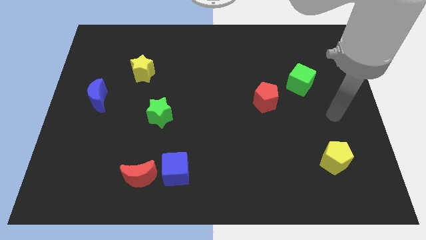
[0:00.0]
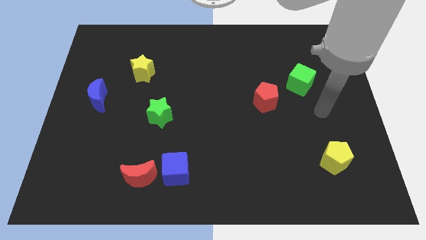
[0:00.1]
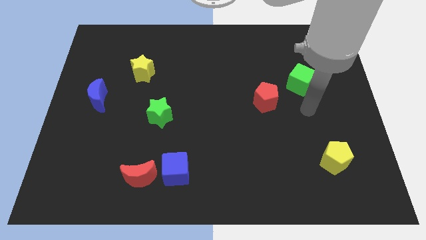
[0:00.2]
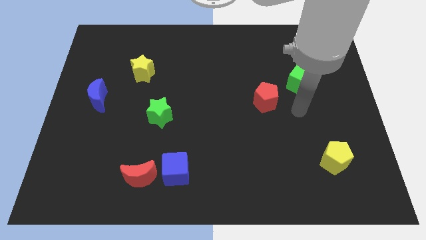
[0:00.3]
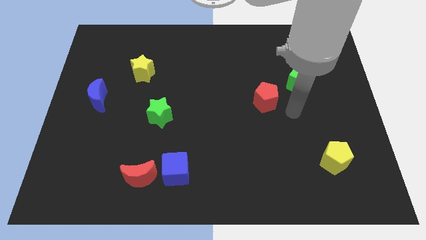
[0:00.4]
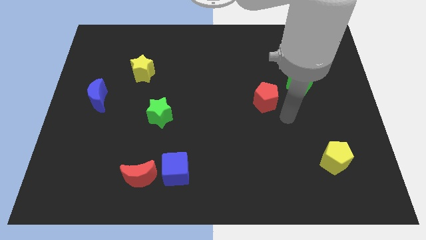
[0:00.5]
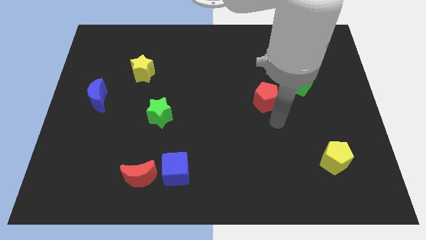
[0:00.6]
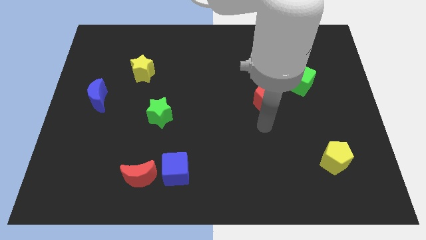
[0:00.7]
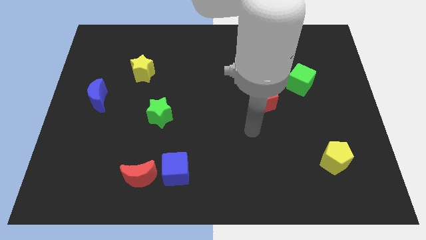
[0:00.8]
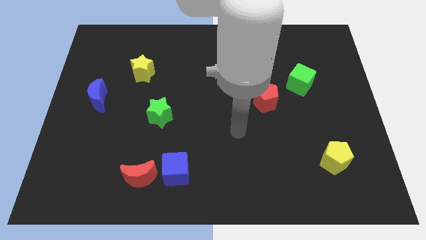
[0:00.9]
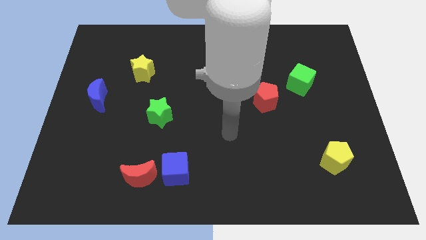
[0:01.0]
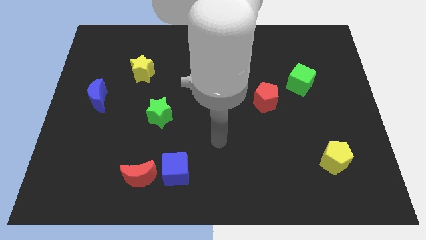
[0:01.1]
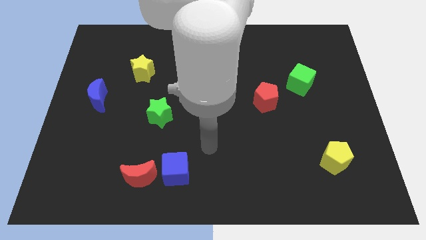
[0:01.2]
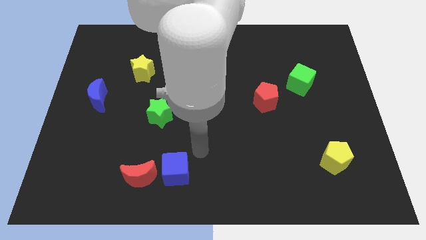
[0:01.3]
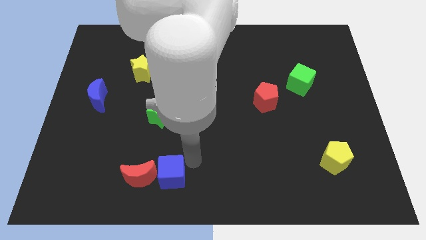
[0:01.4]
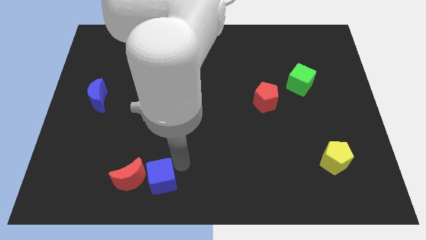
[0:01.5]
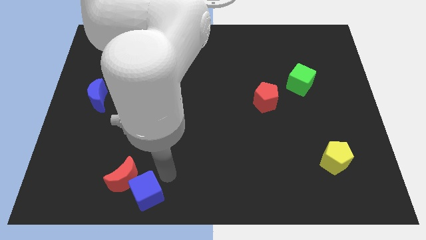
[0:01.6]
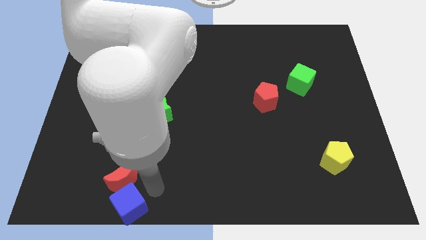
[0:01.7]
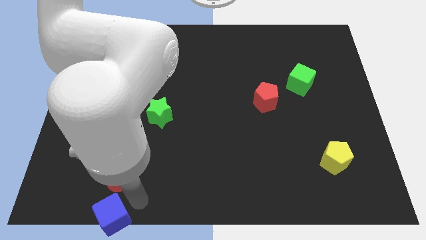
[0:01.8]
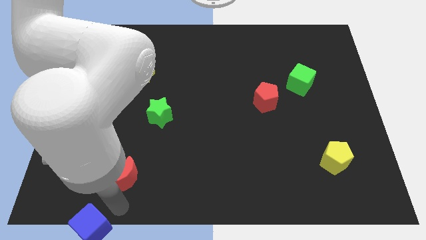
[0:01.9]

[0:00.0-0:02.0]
separate the red moon from the blue cube

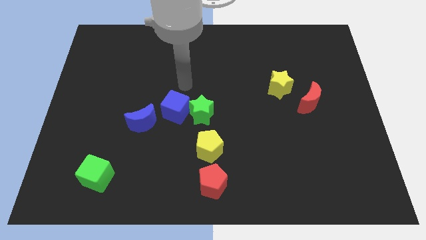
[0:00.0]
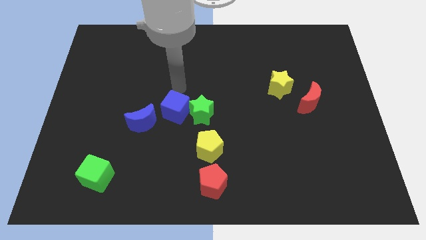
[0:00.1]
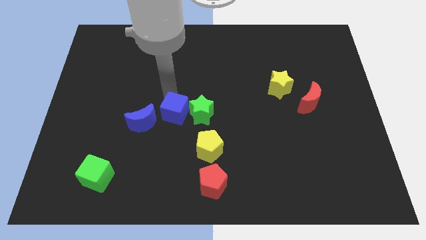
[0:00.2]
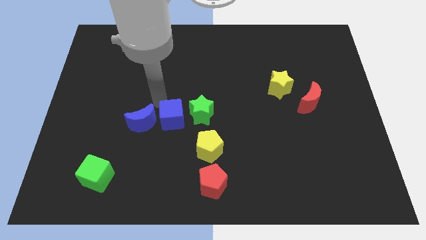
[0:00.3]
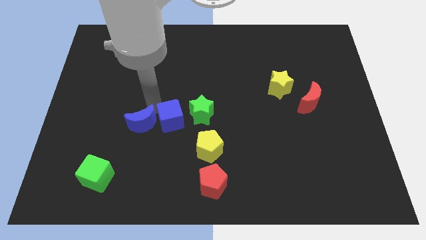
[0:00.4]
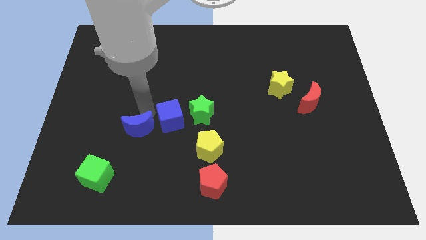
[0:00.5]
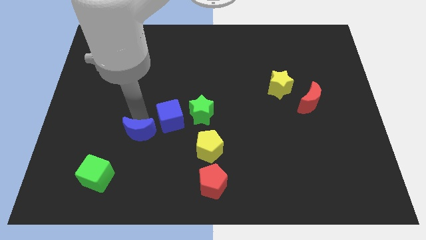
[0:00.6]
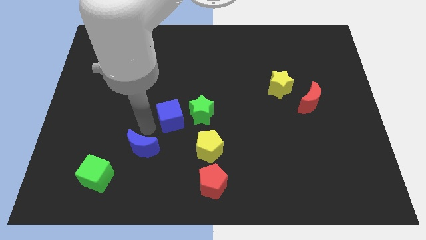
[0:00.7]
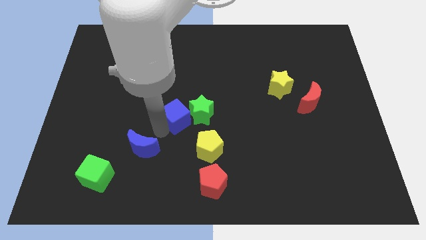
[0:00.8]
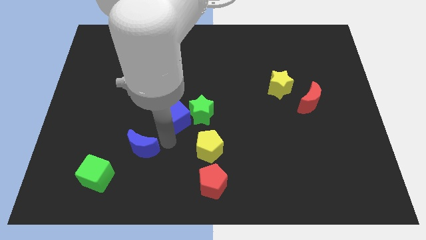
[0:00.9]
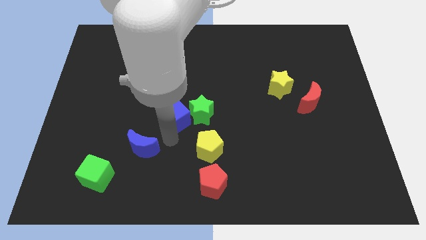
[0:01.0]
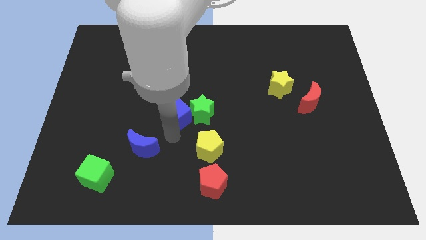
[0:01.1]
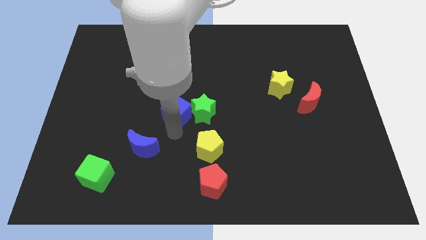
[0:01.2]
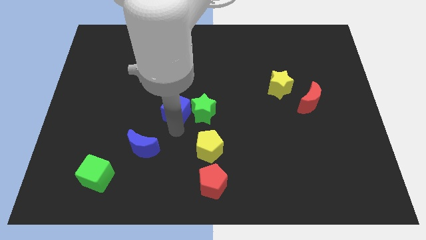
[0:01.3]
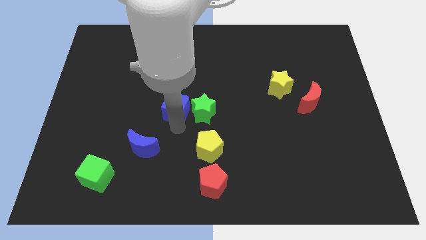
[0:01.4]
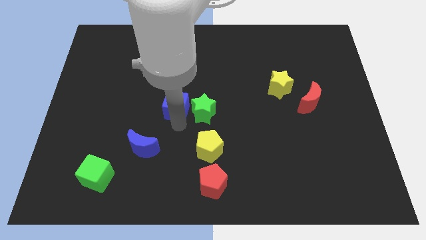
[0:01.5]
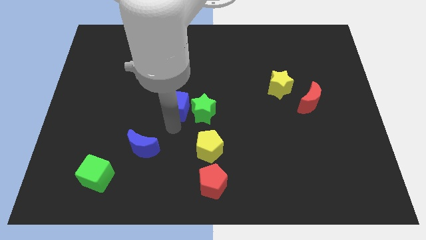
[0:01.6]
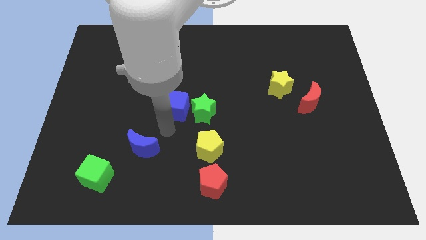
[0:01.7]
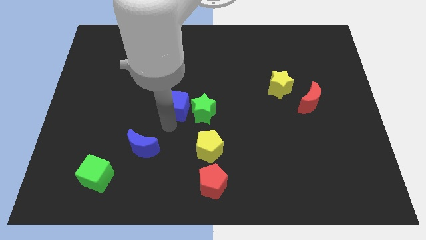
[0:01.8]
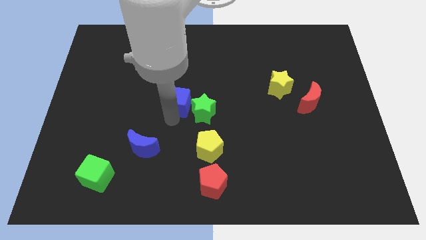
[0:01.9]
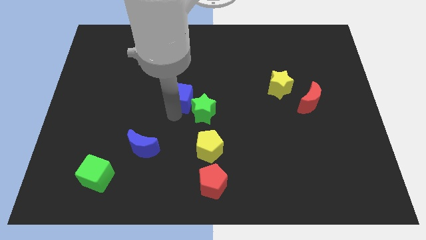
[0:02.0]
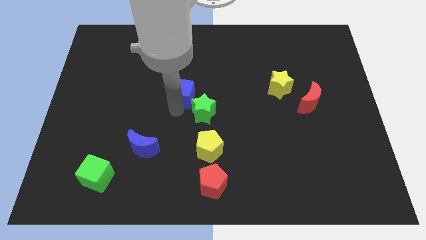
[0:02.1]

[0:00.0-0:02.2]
separate the blue cube from the green star and blue moon

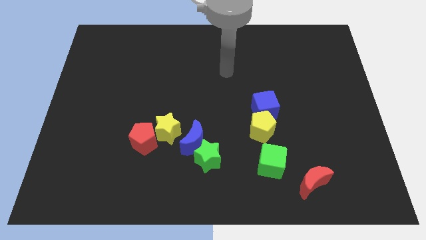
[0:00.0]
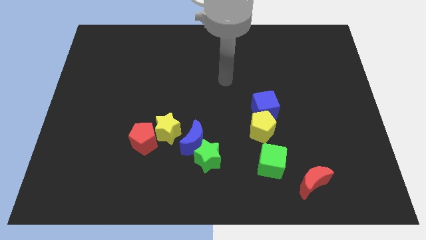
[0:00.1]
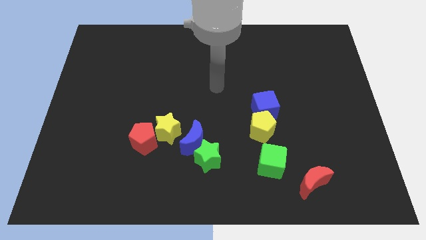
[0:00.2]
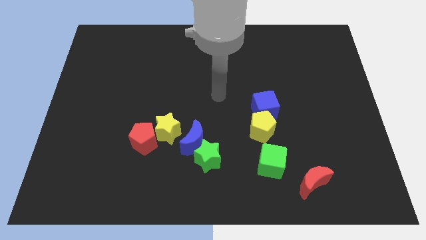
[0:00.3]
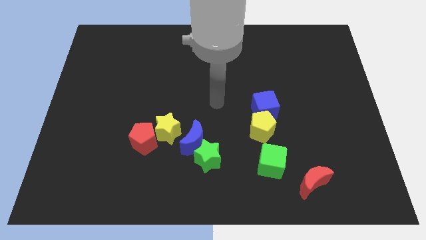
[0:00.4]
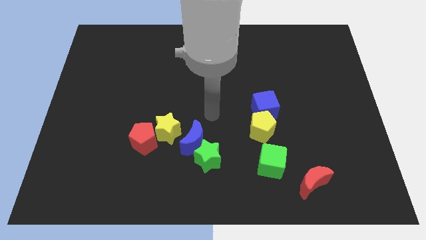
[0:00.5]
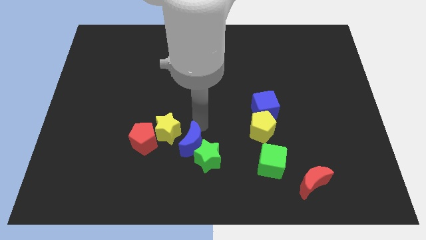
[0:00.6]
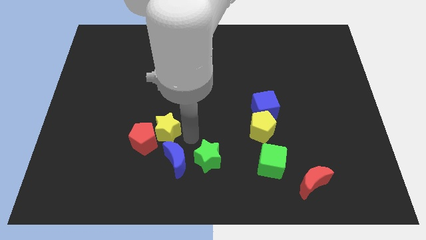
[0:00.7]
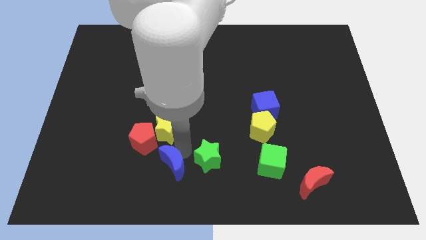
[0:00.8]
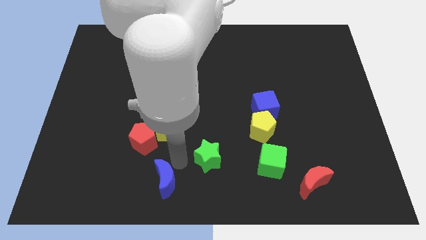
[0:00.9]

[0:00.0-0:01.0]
pull the green star apart from the blue moon

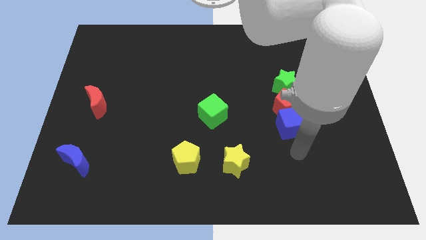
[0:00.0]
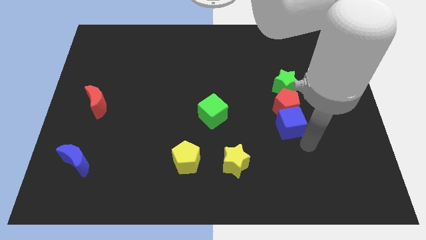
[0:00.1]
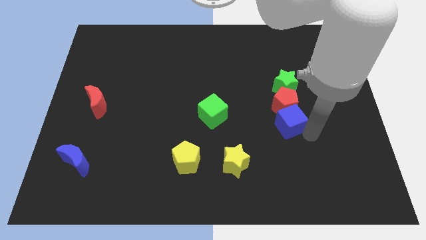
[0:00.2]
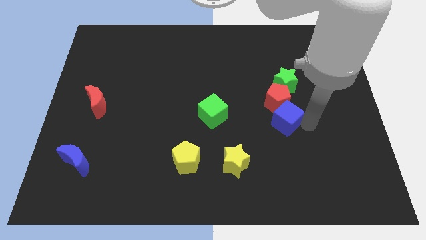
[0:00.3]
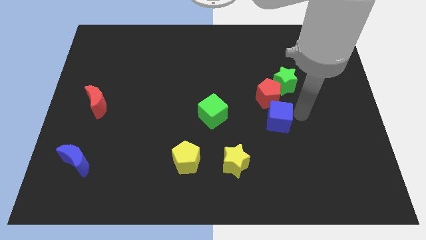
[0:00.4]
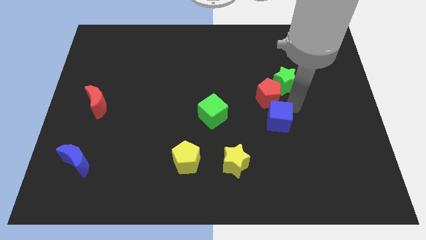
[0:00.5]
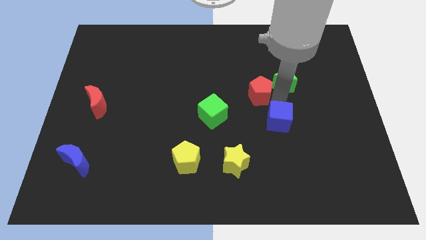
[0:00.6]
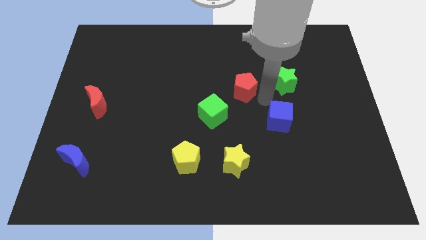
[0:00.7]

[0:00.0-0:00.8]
separate the blue cube from the red pentagon

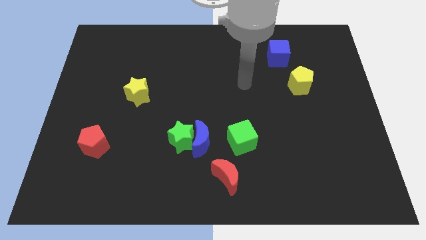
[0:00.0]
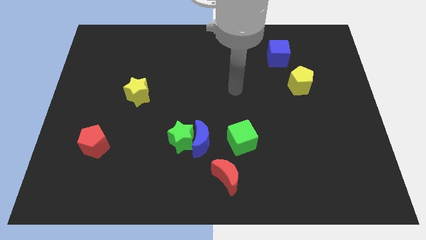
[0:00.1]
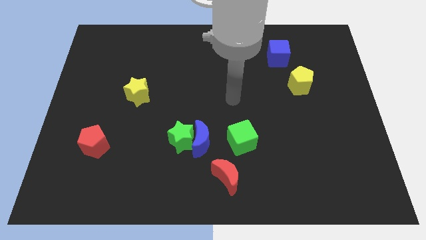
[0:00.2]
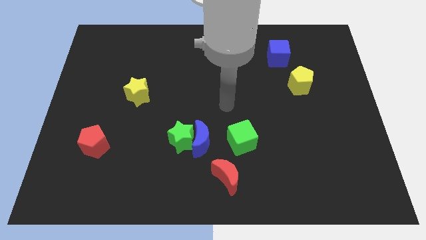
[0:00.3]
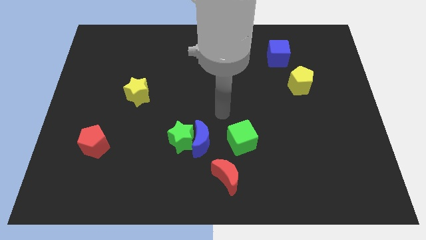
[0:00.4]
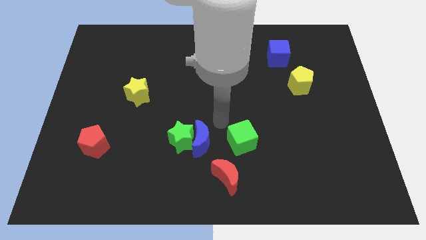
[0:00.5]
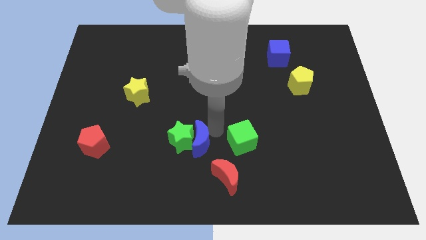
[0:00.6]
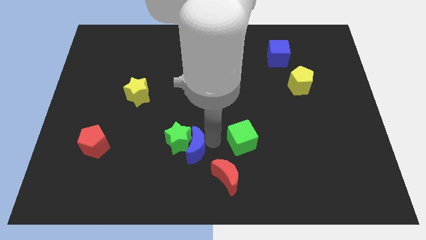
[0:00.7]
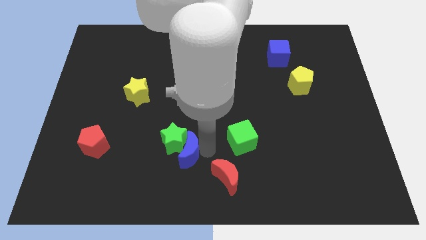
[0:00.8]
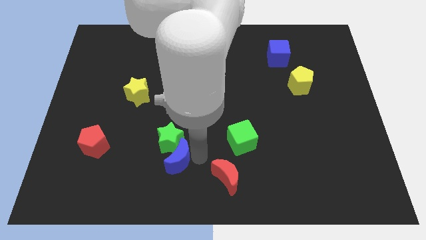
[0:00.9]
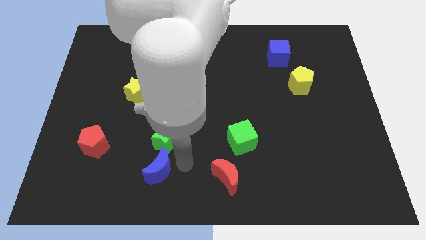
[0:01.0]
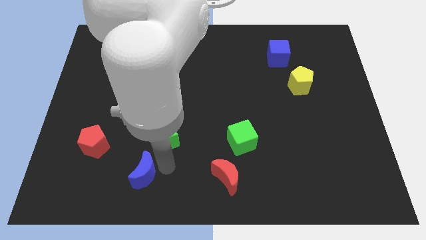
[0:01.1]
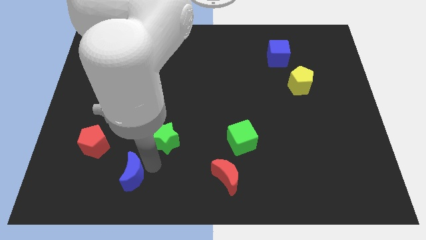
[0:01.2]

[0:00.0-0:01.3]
move the green star away from the blue moon

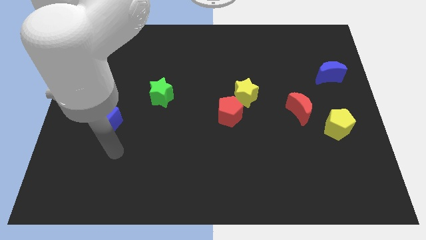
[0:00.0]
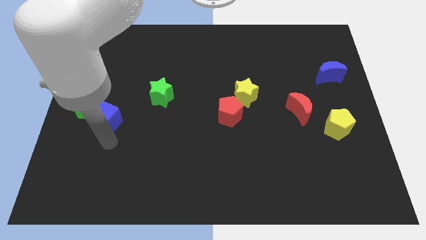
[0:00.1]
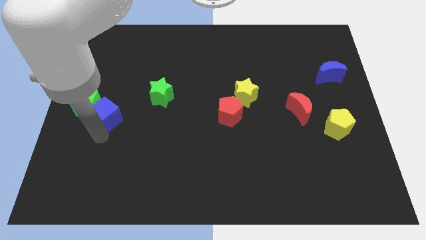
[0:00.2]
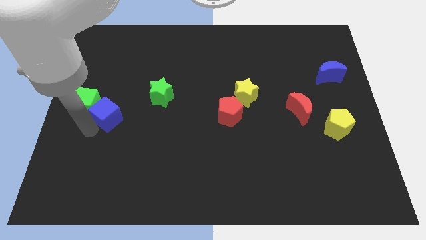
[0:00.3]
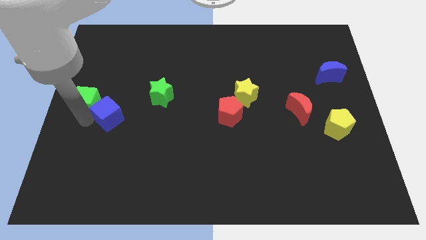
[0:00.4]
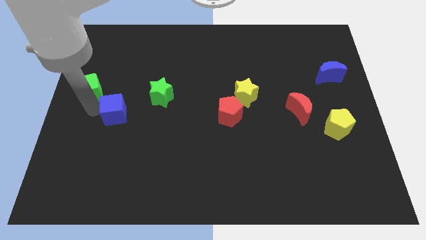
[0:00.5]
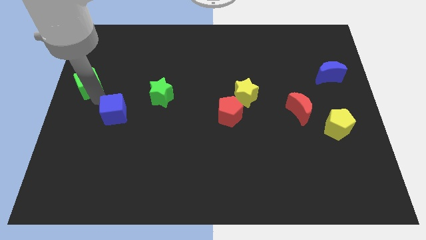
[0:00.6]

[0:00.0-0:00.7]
move the blue cube away from the green cube

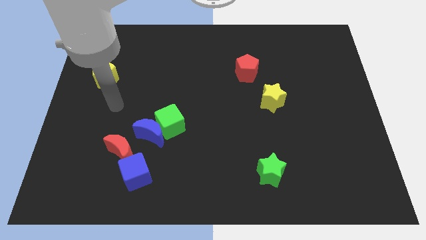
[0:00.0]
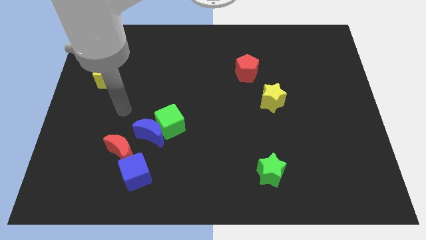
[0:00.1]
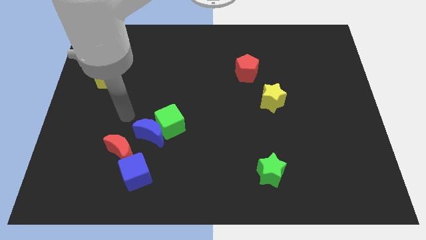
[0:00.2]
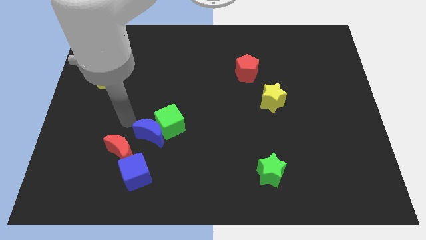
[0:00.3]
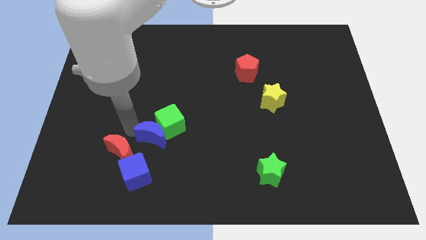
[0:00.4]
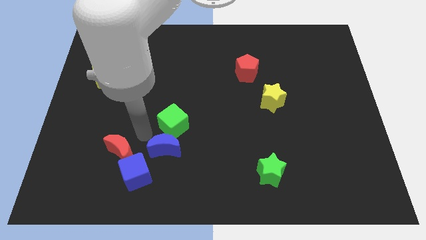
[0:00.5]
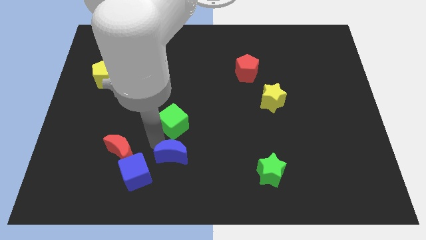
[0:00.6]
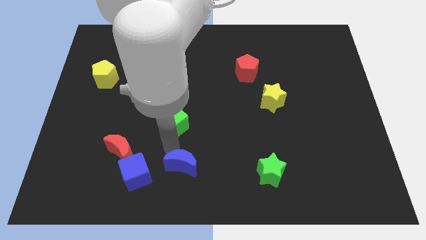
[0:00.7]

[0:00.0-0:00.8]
move the green cube away from the blue moon

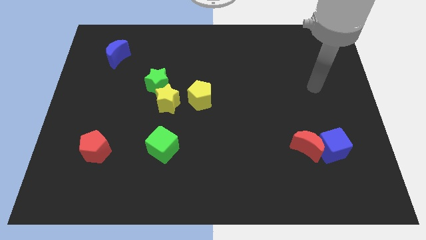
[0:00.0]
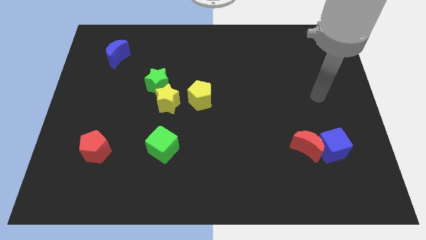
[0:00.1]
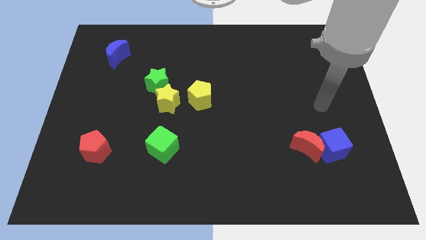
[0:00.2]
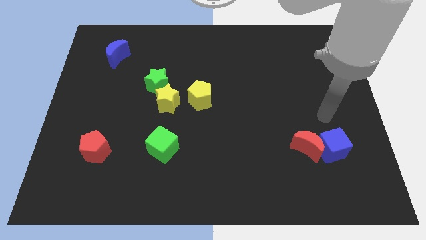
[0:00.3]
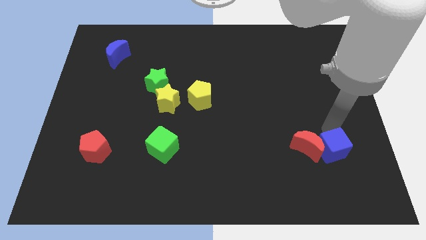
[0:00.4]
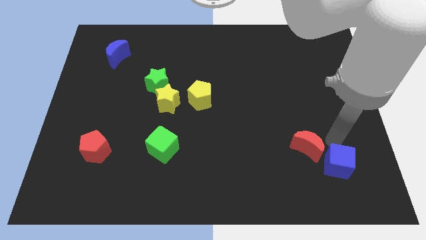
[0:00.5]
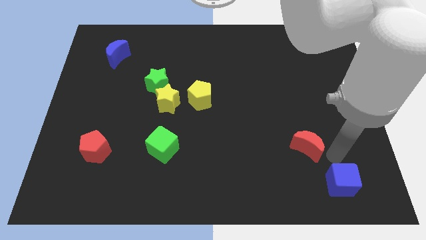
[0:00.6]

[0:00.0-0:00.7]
move the red moon away from the blue cube

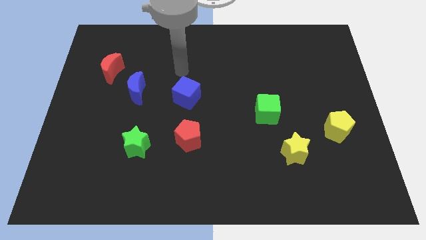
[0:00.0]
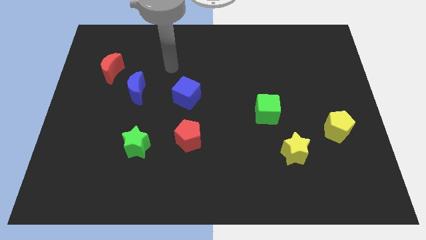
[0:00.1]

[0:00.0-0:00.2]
pull the red moon apart from the blue moon
